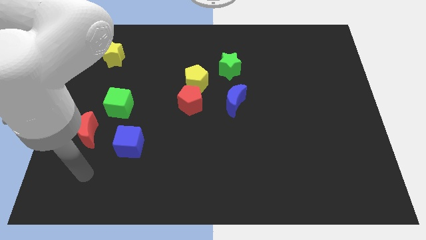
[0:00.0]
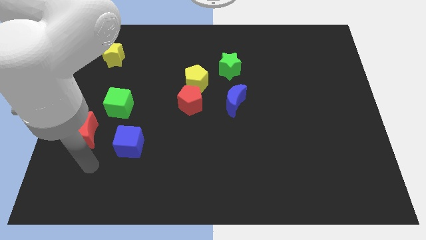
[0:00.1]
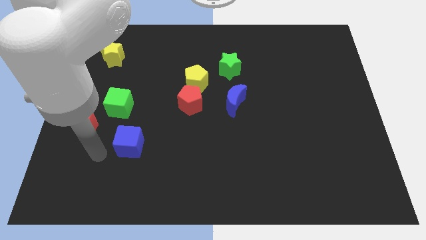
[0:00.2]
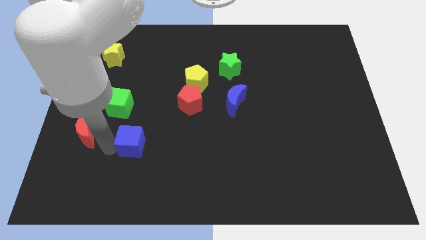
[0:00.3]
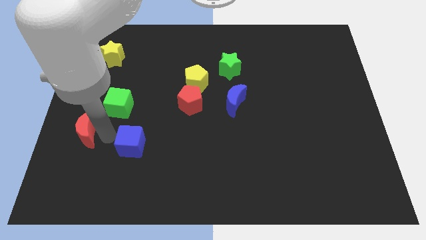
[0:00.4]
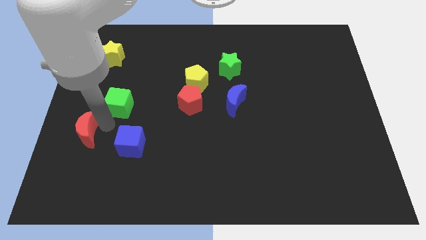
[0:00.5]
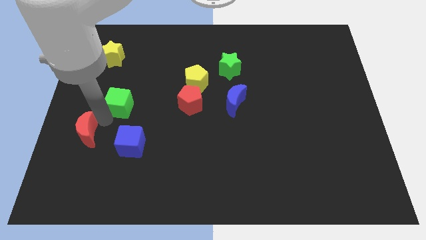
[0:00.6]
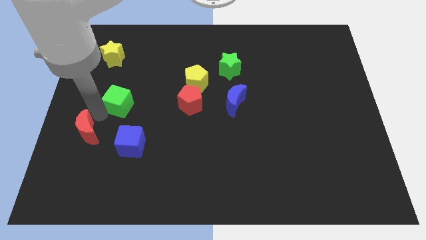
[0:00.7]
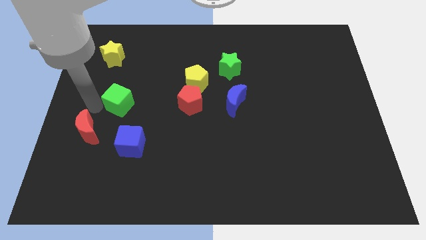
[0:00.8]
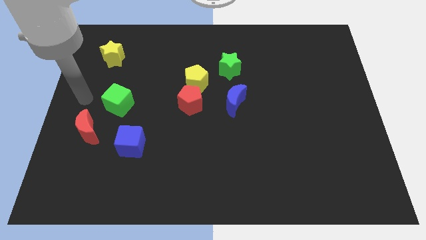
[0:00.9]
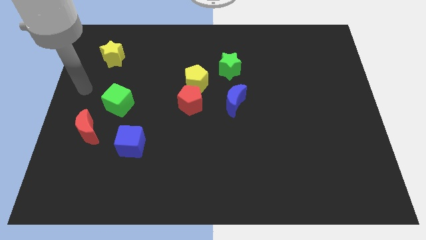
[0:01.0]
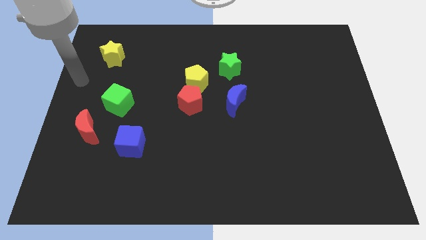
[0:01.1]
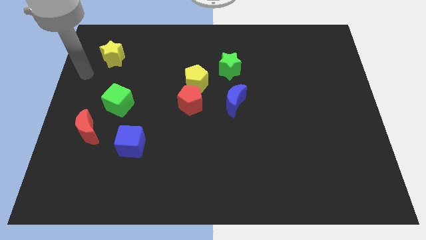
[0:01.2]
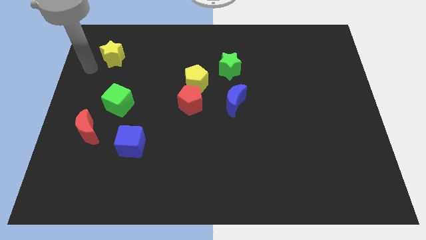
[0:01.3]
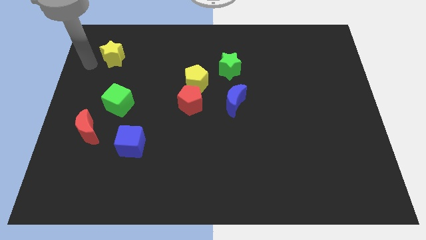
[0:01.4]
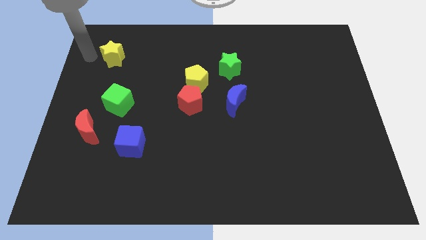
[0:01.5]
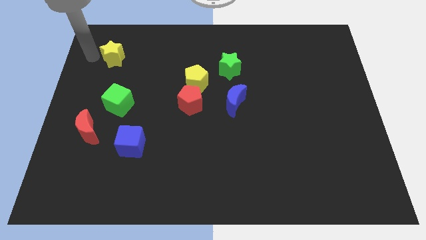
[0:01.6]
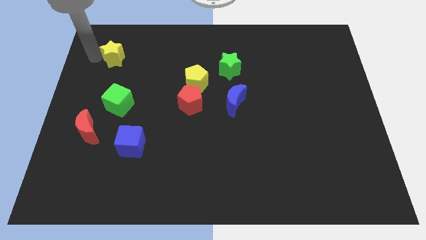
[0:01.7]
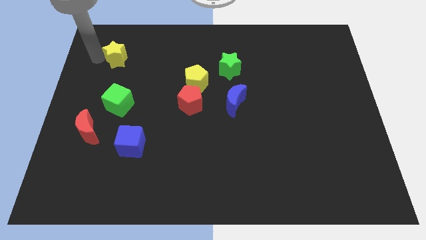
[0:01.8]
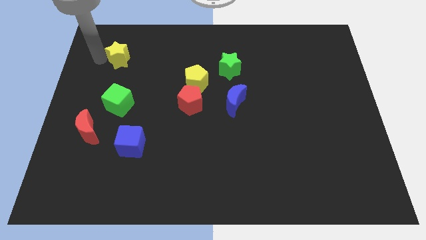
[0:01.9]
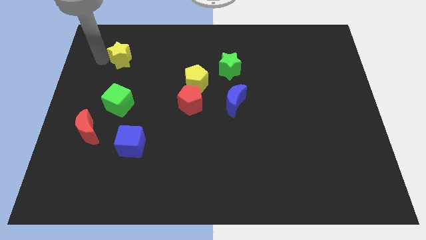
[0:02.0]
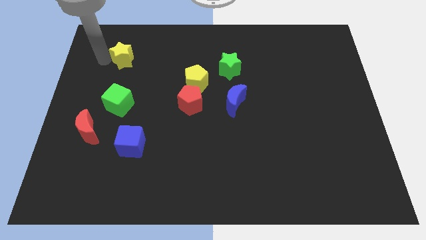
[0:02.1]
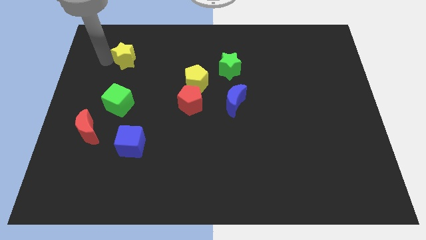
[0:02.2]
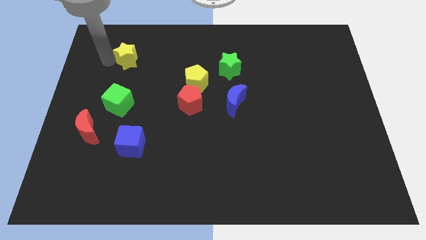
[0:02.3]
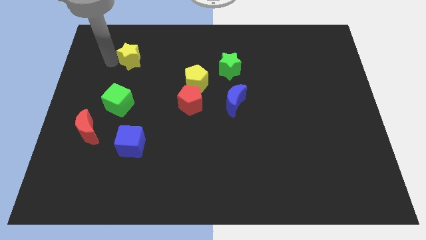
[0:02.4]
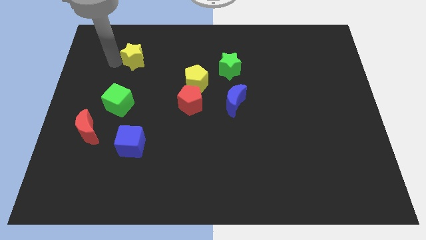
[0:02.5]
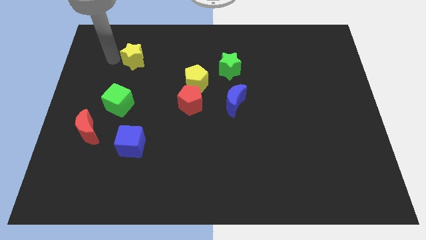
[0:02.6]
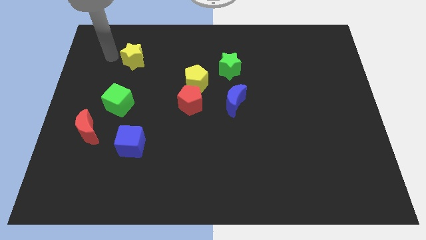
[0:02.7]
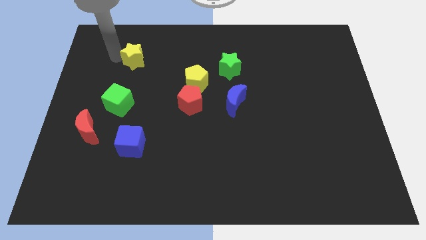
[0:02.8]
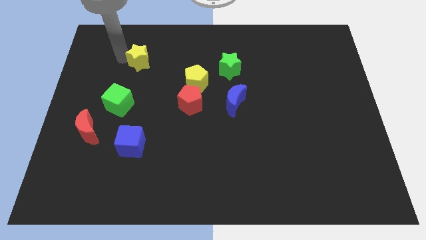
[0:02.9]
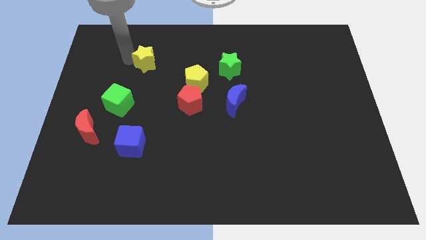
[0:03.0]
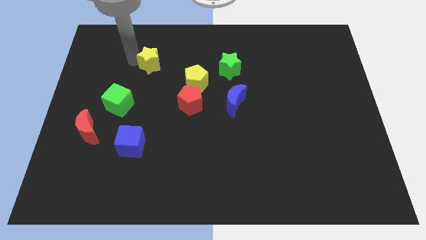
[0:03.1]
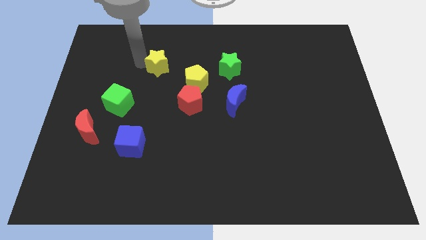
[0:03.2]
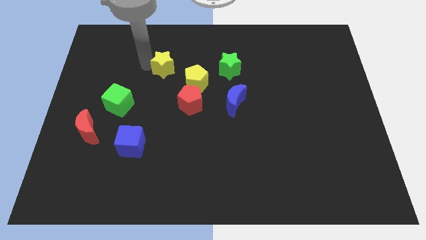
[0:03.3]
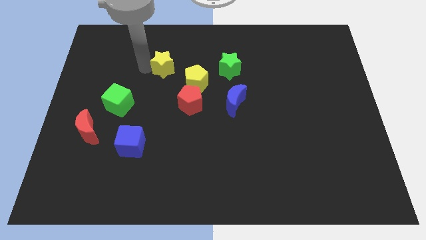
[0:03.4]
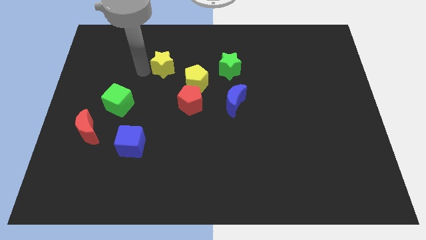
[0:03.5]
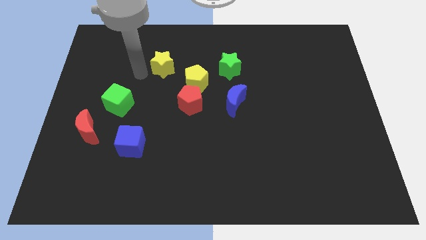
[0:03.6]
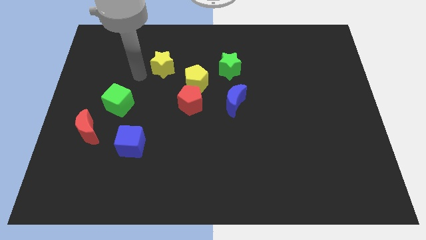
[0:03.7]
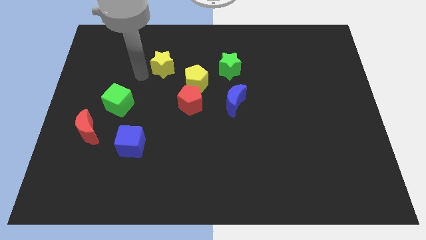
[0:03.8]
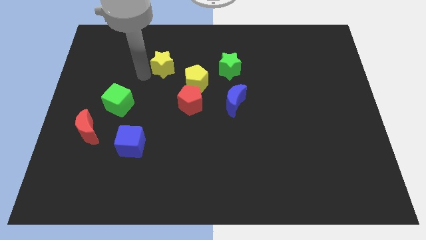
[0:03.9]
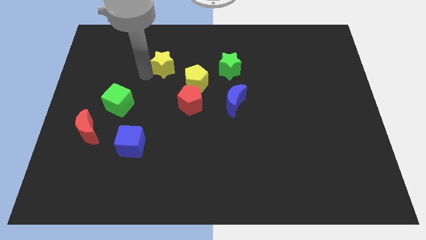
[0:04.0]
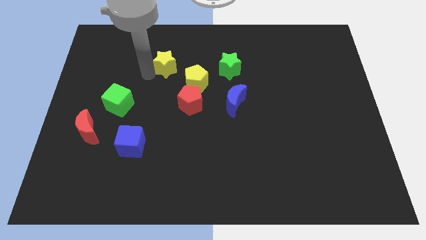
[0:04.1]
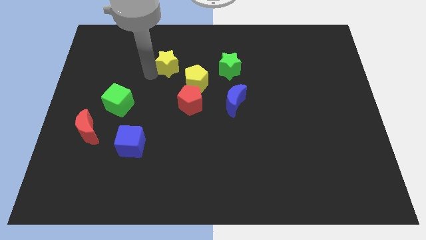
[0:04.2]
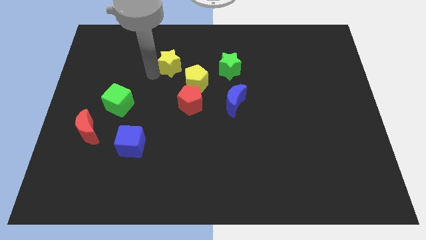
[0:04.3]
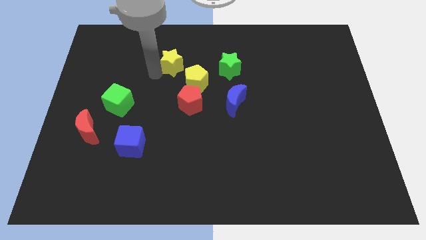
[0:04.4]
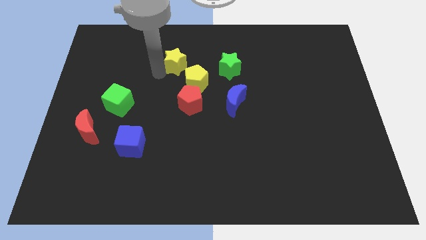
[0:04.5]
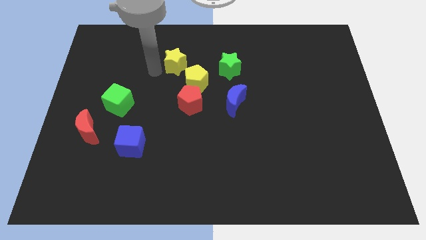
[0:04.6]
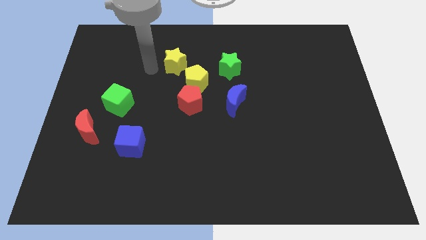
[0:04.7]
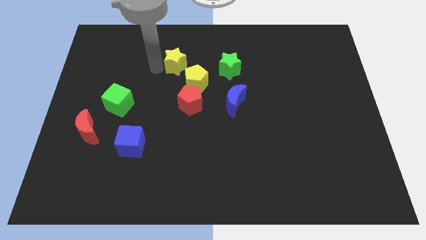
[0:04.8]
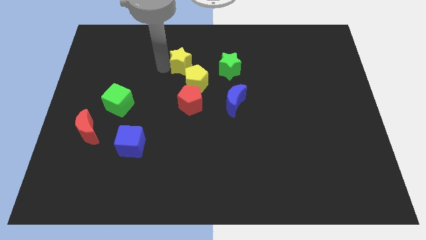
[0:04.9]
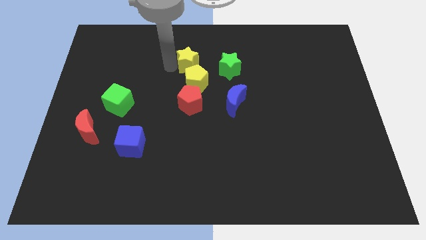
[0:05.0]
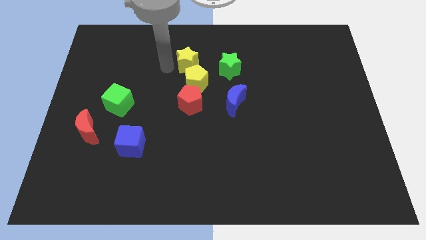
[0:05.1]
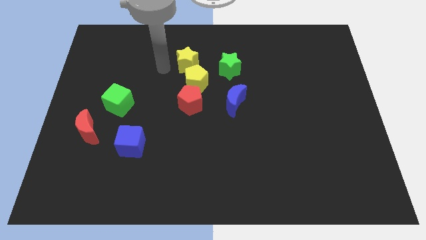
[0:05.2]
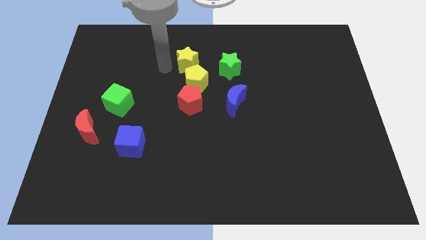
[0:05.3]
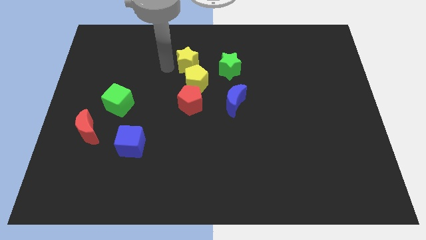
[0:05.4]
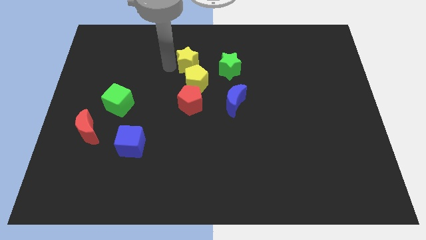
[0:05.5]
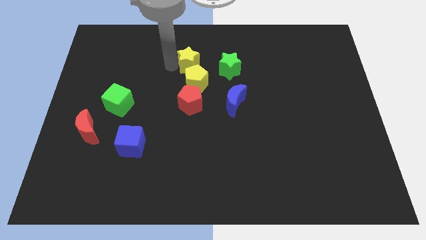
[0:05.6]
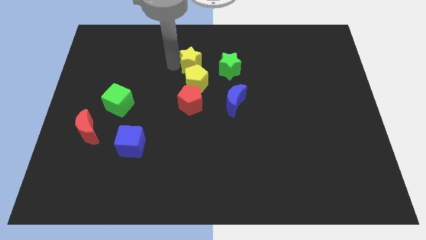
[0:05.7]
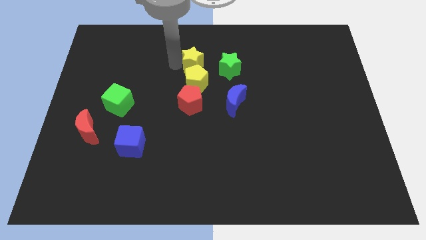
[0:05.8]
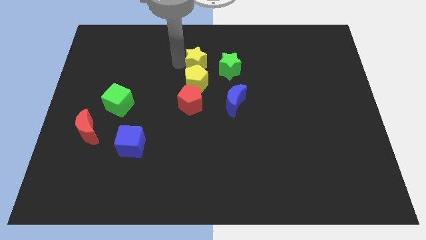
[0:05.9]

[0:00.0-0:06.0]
slide the yellow star to the middle

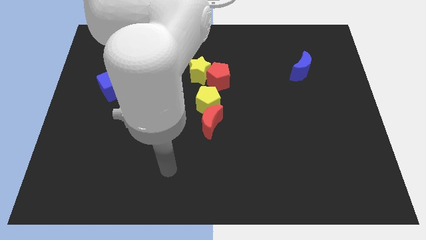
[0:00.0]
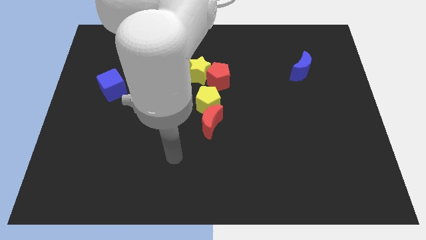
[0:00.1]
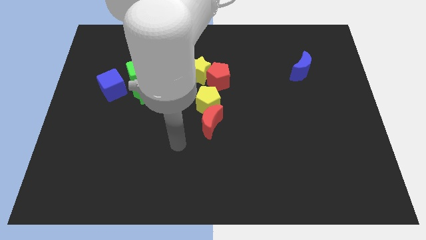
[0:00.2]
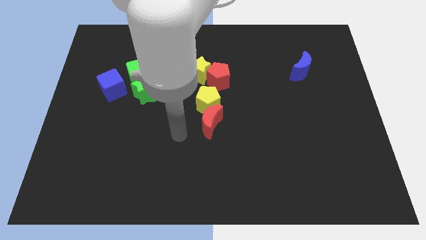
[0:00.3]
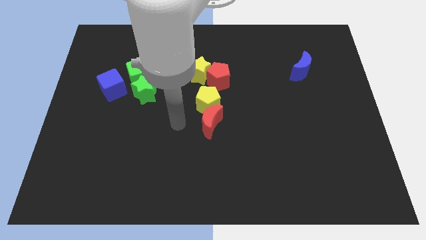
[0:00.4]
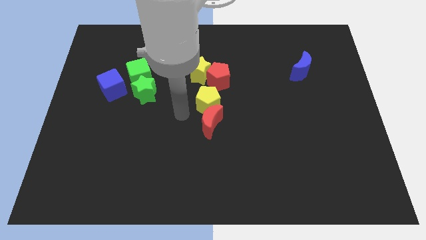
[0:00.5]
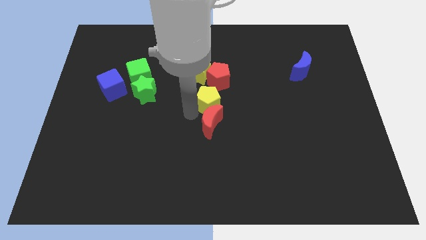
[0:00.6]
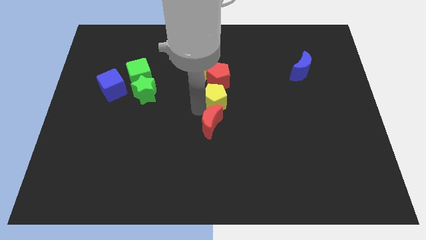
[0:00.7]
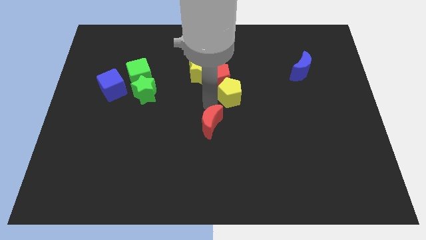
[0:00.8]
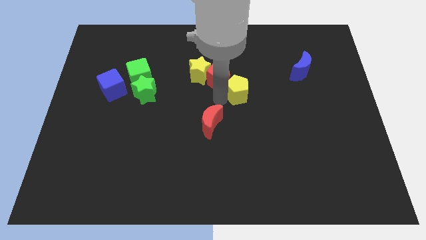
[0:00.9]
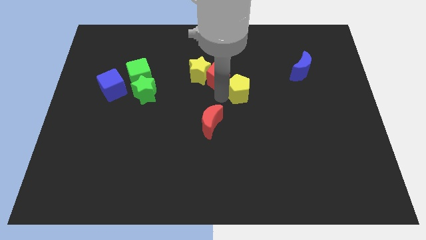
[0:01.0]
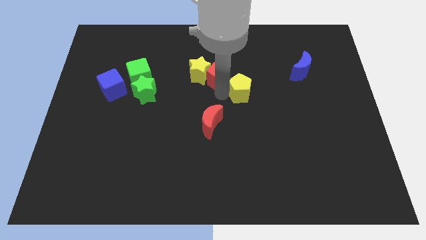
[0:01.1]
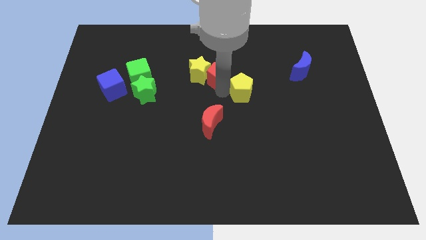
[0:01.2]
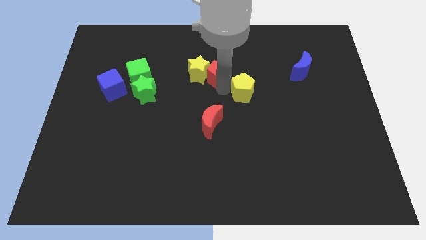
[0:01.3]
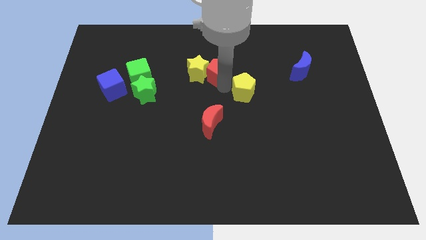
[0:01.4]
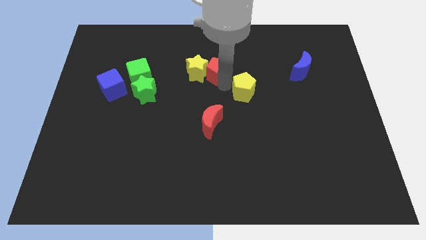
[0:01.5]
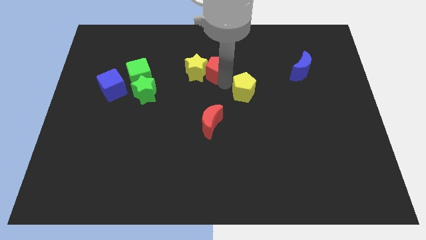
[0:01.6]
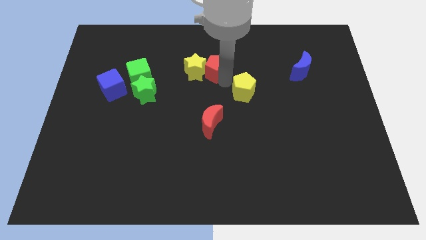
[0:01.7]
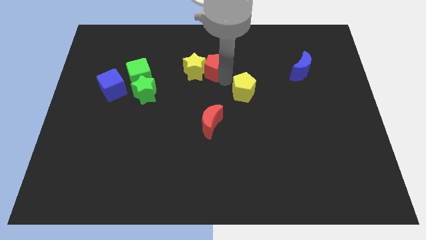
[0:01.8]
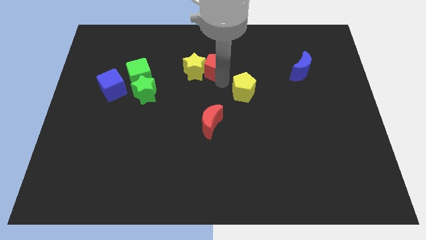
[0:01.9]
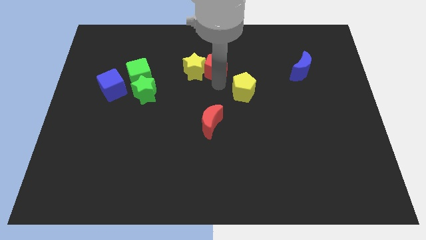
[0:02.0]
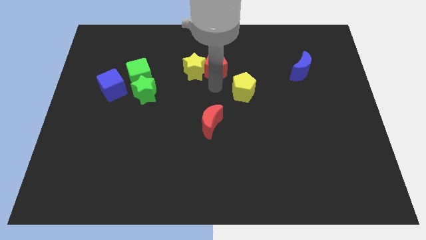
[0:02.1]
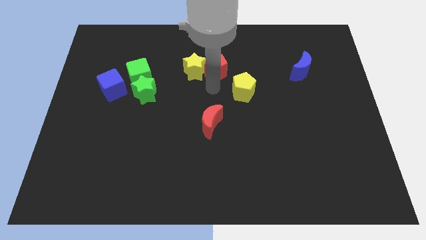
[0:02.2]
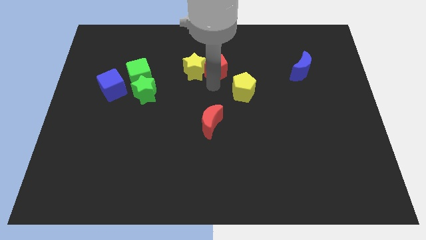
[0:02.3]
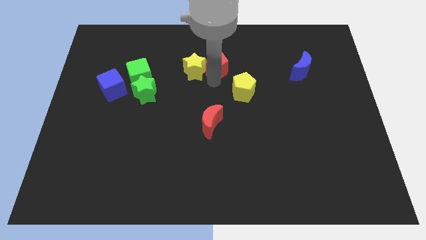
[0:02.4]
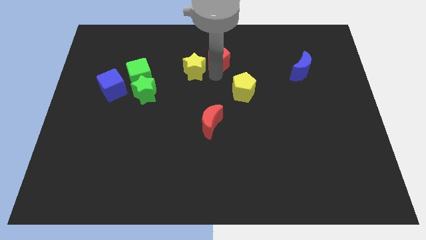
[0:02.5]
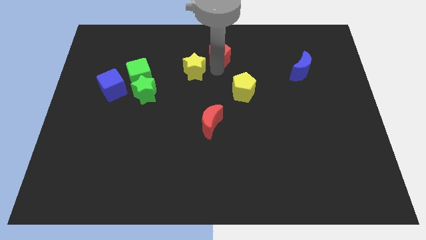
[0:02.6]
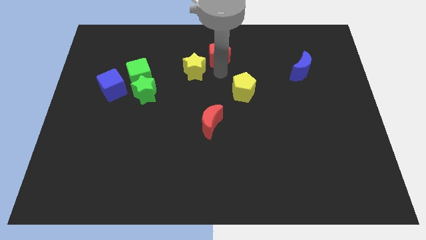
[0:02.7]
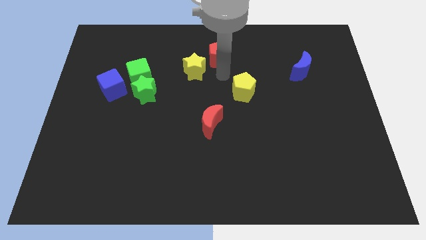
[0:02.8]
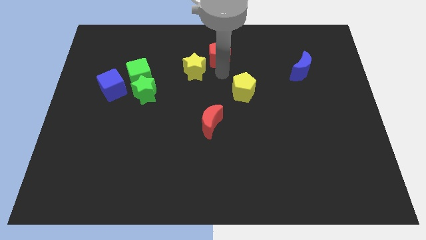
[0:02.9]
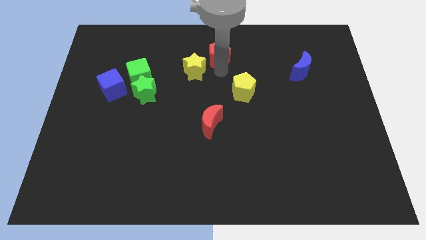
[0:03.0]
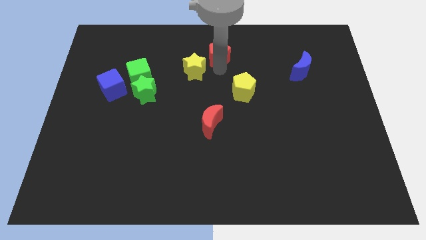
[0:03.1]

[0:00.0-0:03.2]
move the red pentagon to the top side
